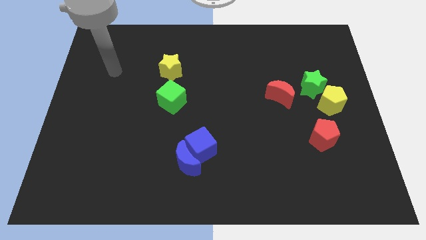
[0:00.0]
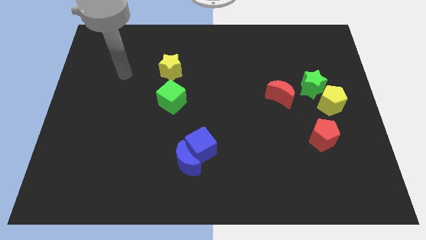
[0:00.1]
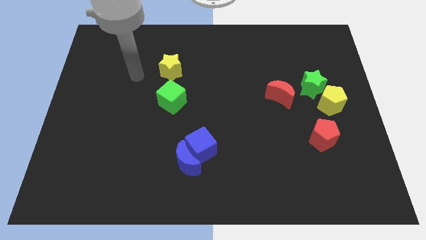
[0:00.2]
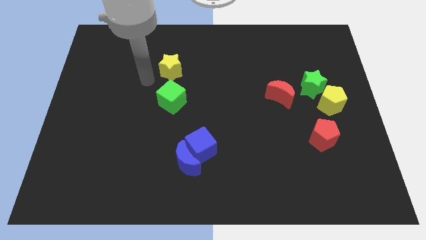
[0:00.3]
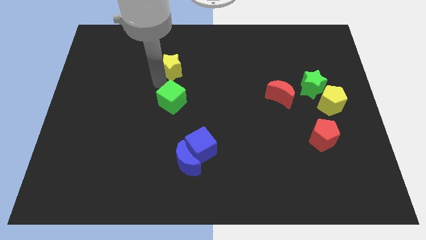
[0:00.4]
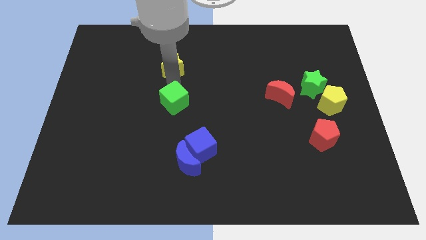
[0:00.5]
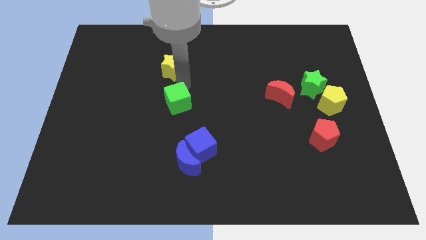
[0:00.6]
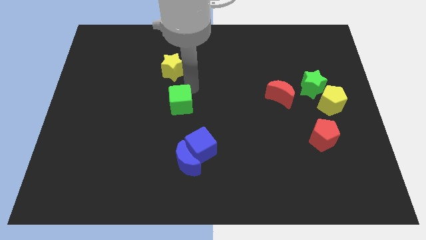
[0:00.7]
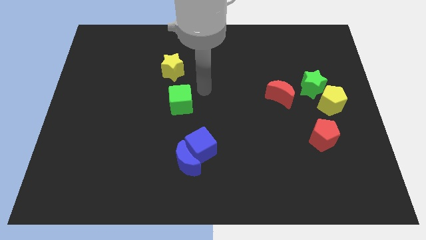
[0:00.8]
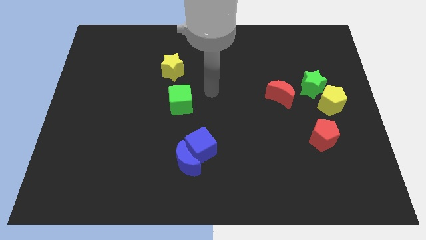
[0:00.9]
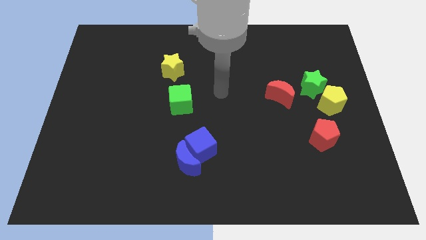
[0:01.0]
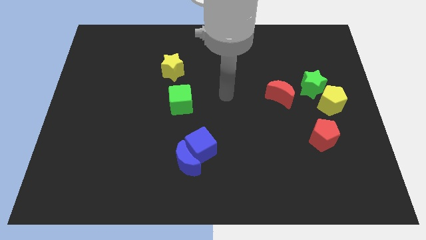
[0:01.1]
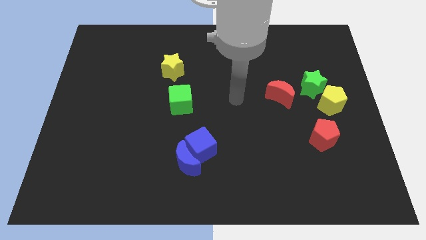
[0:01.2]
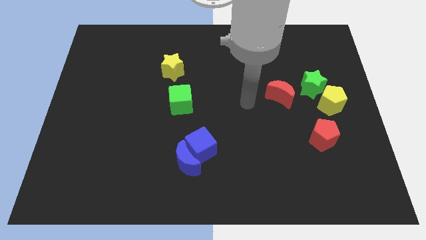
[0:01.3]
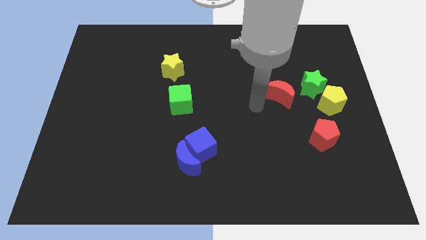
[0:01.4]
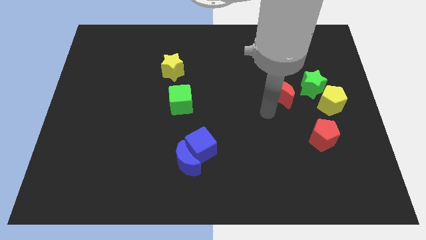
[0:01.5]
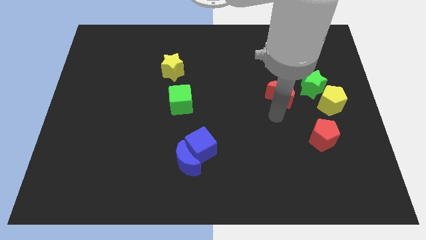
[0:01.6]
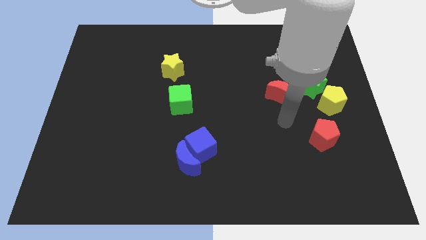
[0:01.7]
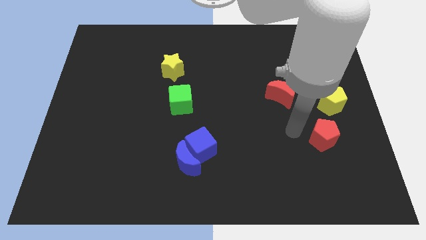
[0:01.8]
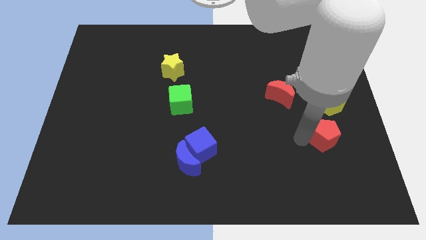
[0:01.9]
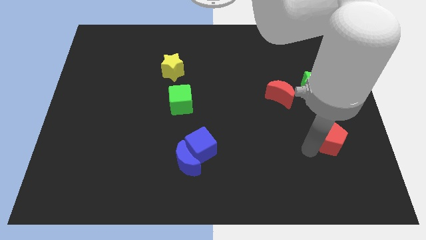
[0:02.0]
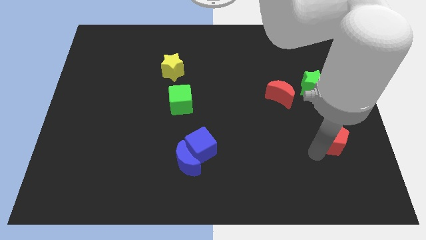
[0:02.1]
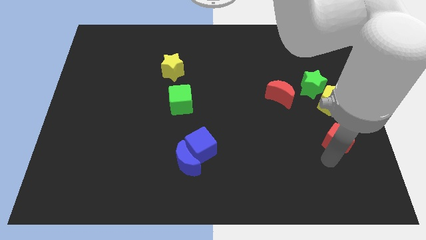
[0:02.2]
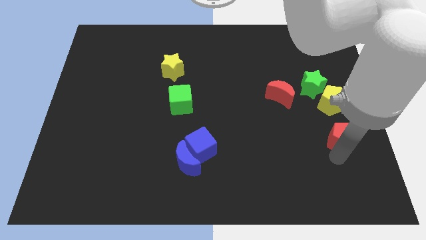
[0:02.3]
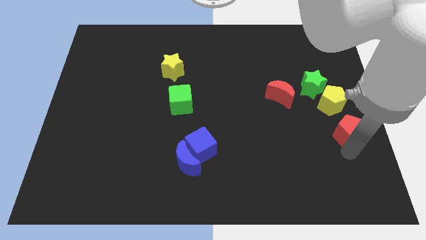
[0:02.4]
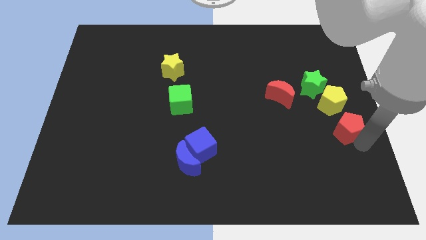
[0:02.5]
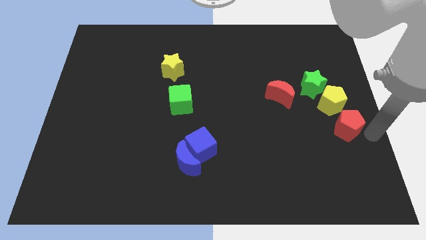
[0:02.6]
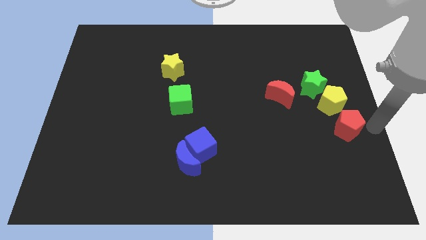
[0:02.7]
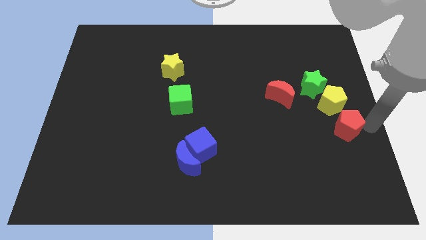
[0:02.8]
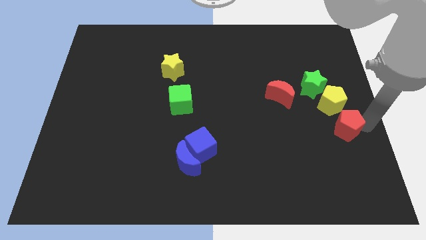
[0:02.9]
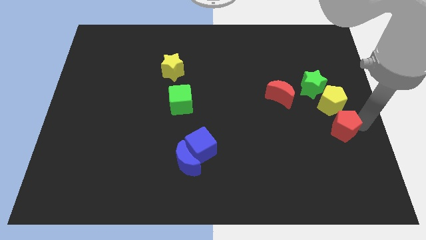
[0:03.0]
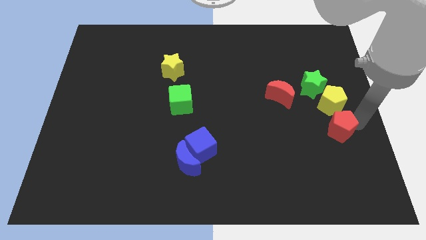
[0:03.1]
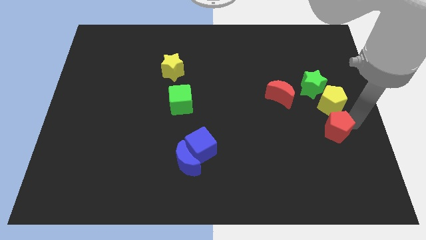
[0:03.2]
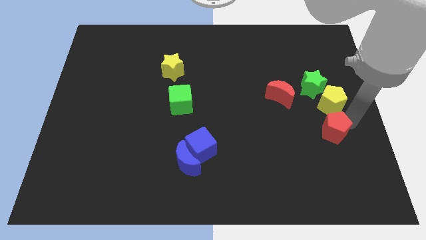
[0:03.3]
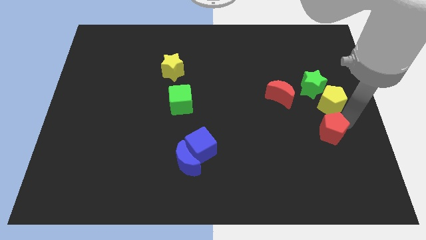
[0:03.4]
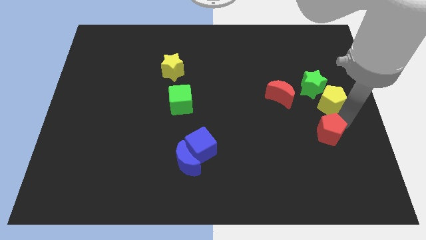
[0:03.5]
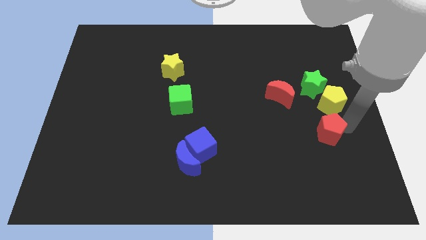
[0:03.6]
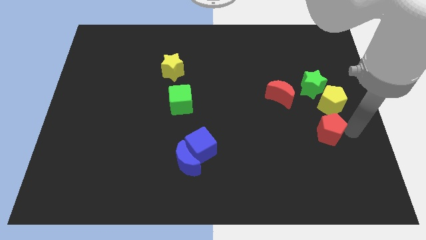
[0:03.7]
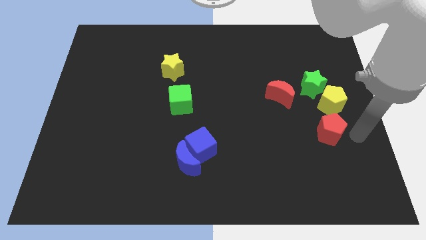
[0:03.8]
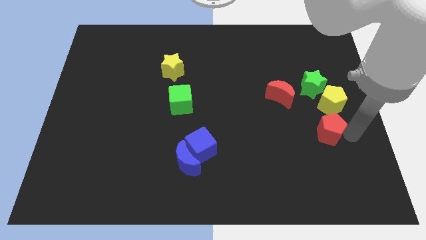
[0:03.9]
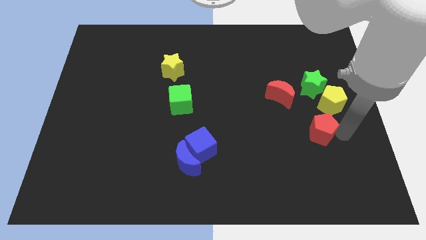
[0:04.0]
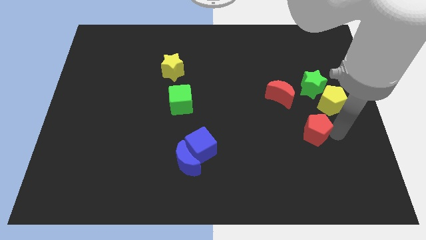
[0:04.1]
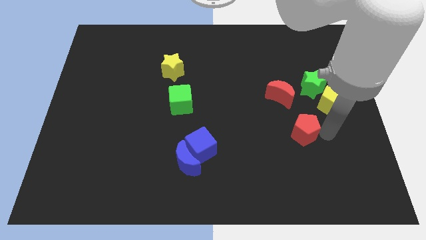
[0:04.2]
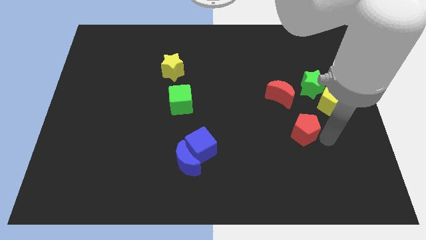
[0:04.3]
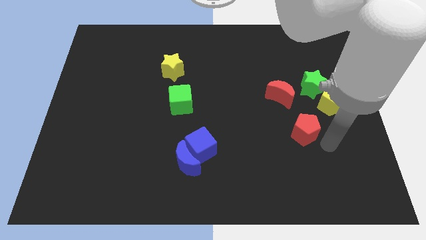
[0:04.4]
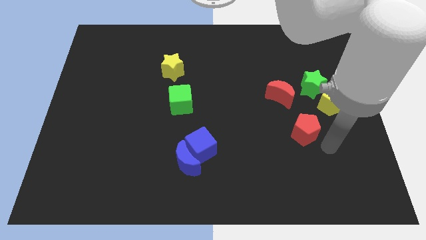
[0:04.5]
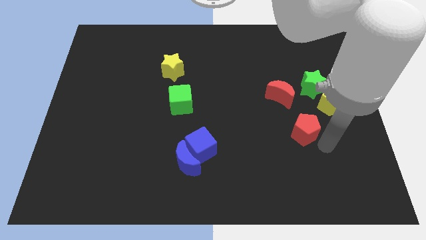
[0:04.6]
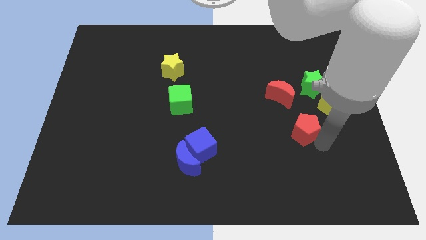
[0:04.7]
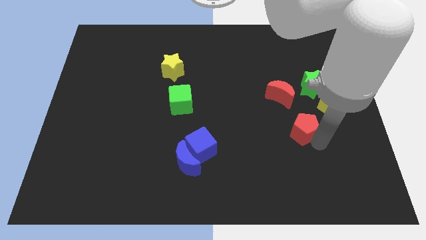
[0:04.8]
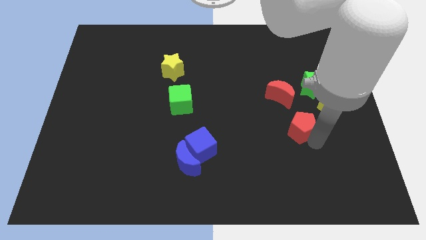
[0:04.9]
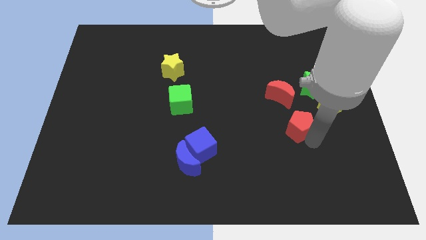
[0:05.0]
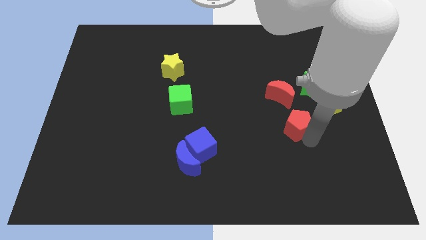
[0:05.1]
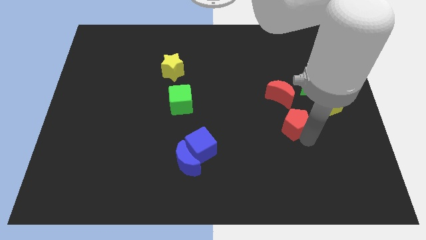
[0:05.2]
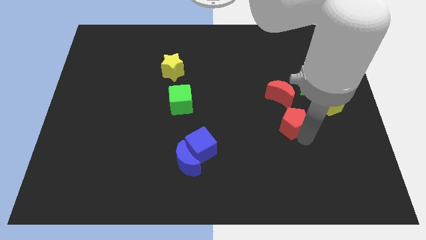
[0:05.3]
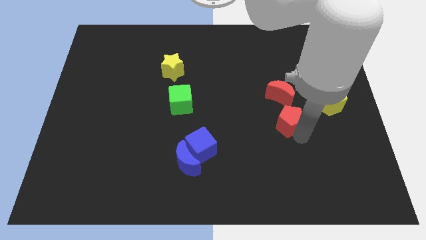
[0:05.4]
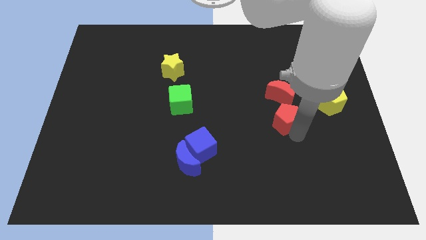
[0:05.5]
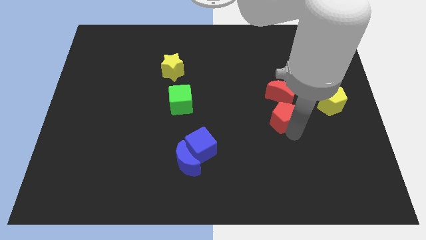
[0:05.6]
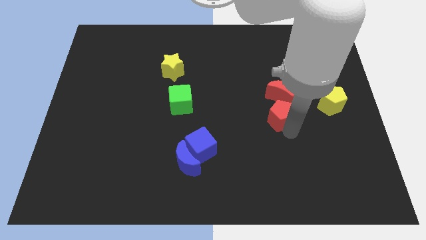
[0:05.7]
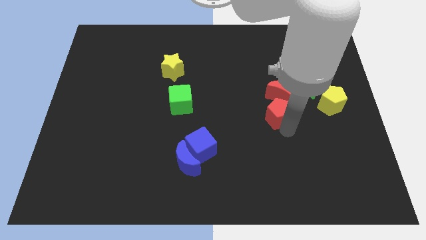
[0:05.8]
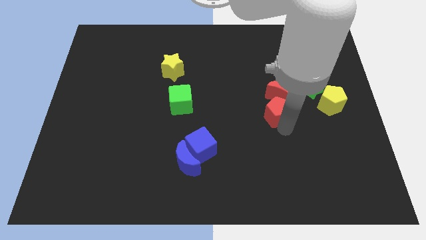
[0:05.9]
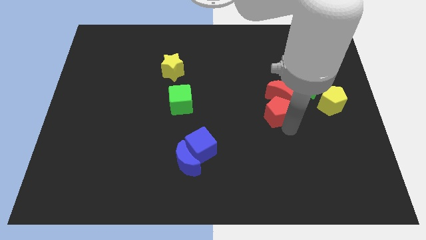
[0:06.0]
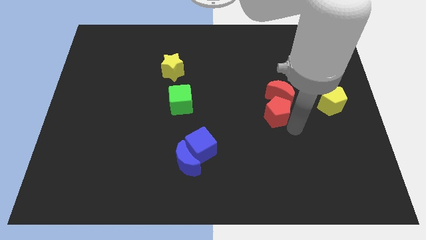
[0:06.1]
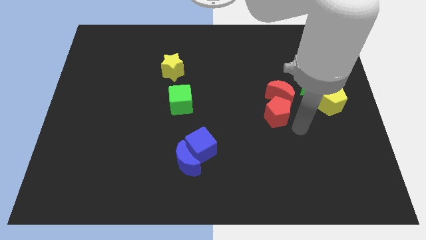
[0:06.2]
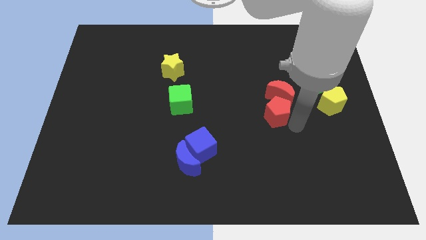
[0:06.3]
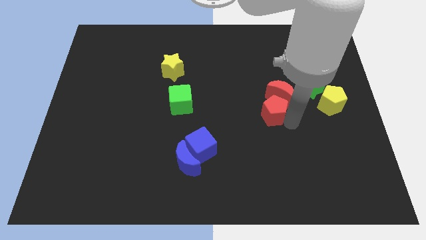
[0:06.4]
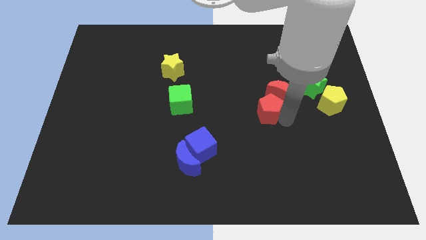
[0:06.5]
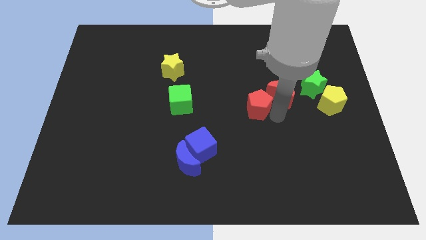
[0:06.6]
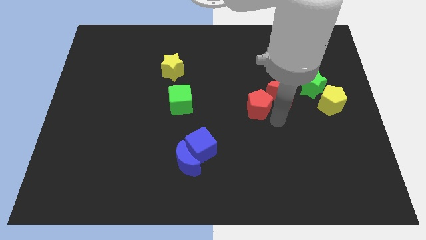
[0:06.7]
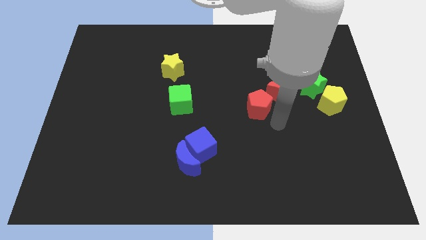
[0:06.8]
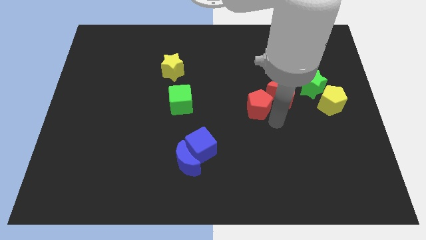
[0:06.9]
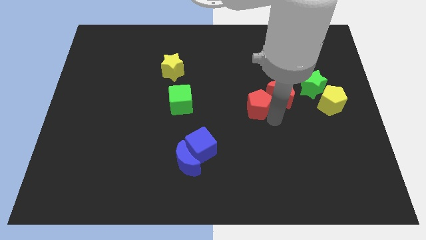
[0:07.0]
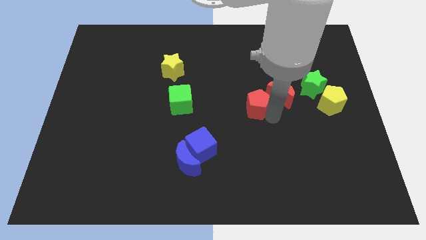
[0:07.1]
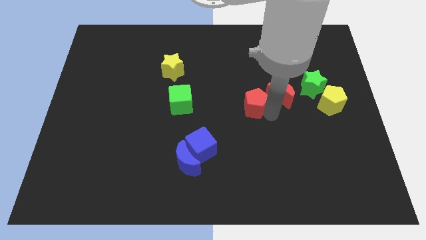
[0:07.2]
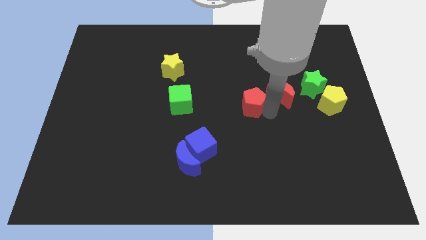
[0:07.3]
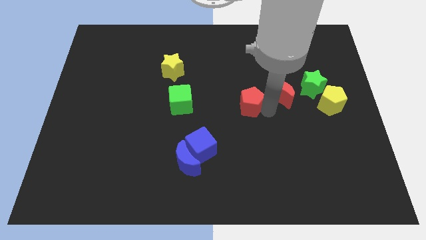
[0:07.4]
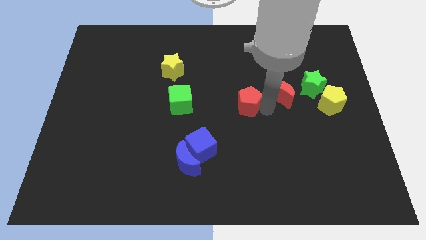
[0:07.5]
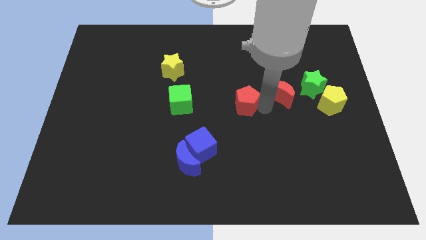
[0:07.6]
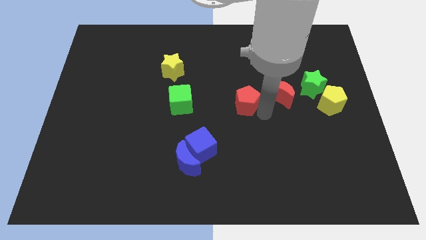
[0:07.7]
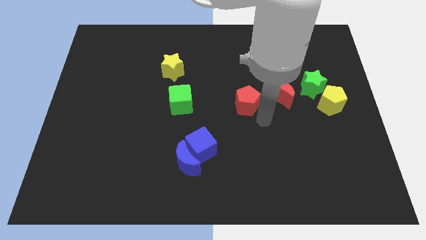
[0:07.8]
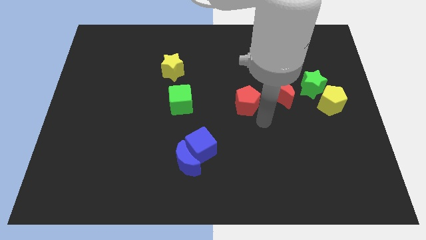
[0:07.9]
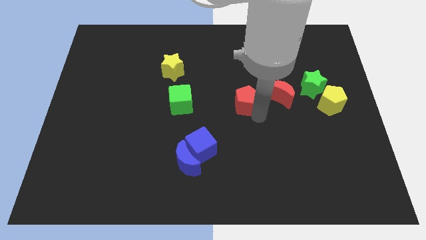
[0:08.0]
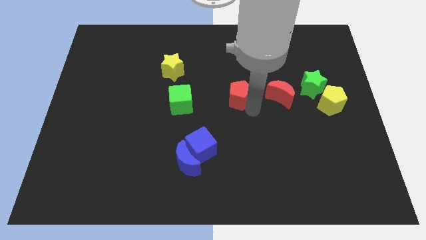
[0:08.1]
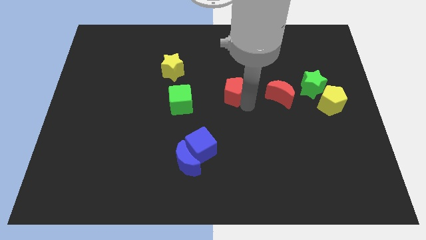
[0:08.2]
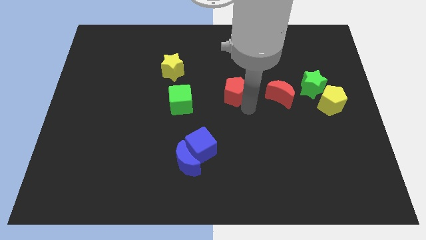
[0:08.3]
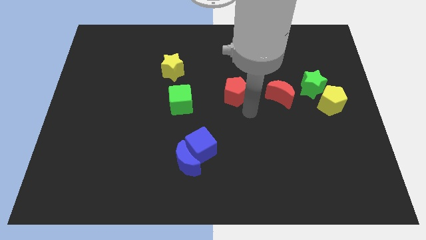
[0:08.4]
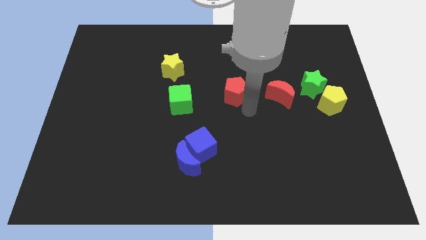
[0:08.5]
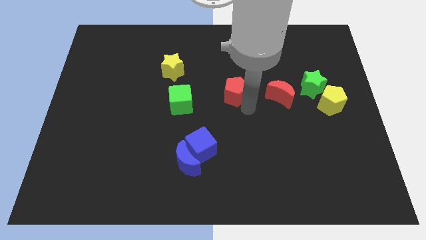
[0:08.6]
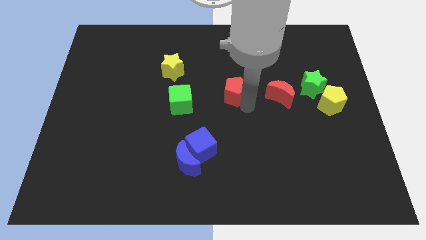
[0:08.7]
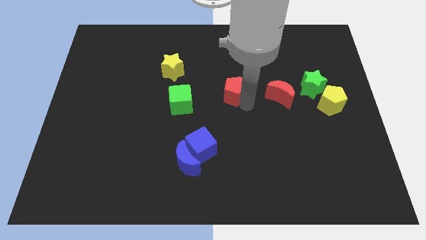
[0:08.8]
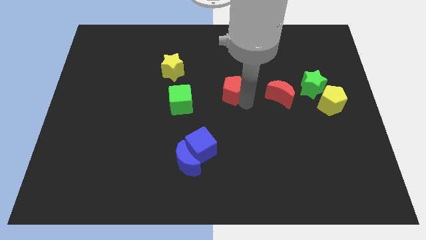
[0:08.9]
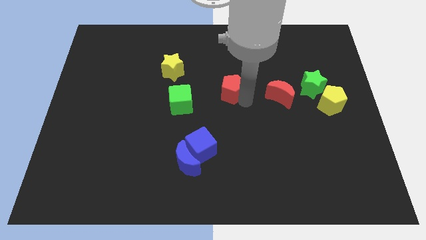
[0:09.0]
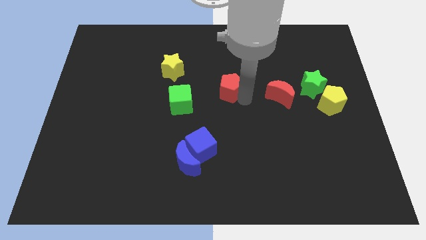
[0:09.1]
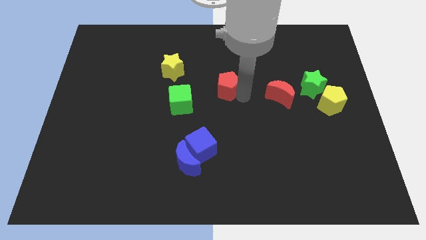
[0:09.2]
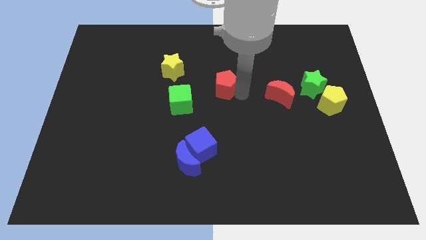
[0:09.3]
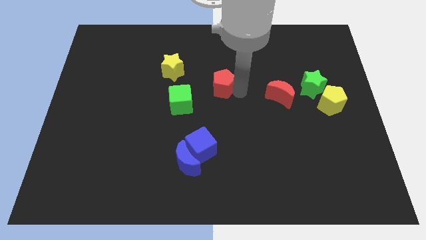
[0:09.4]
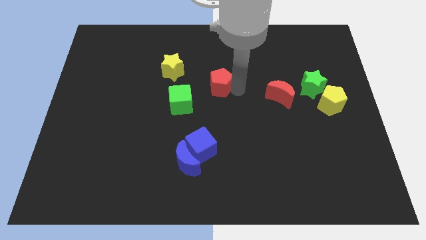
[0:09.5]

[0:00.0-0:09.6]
put the red pentagon just right of the yellow star
